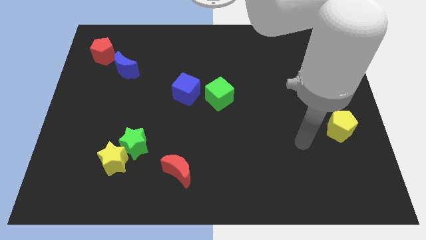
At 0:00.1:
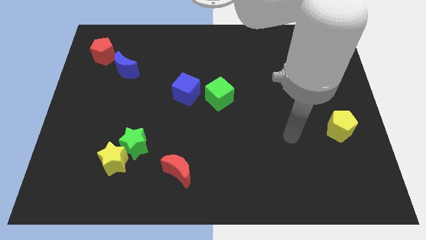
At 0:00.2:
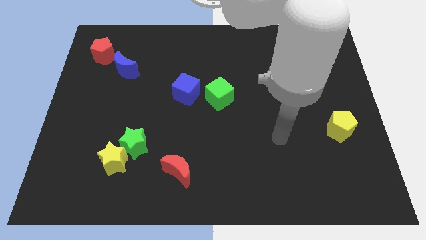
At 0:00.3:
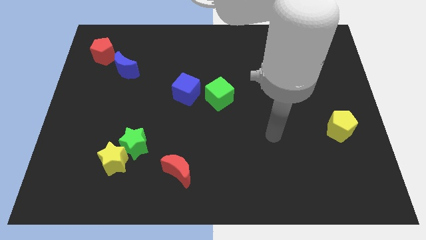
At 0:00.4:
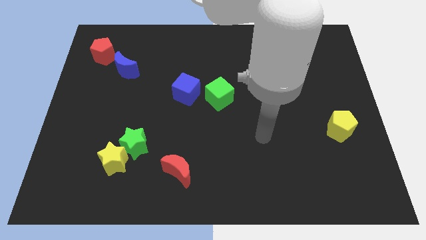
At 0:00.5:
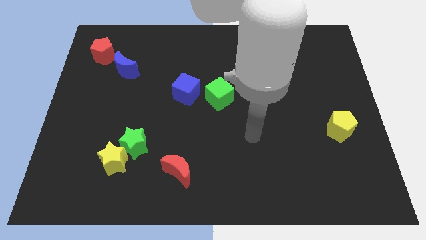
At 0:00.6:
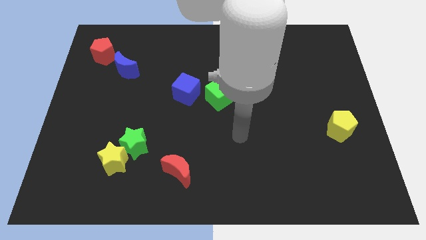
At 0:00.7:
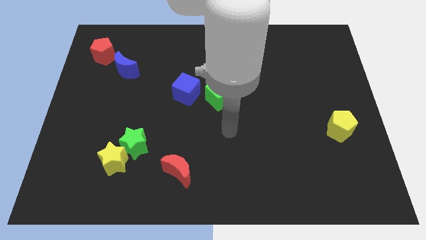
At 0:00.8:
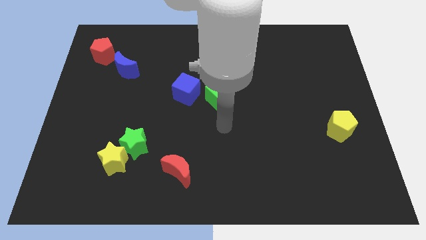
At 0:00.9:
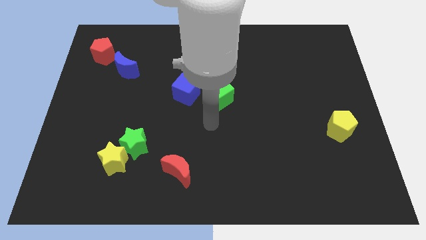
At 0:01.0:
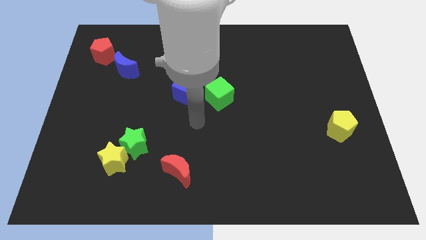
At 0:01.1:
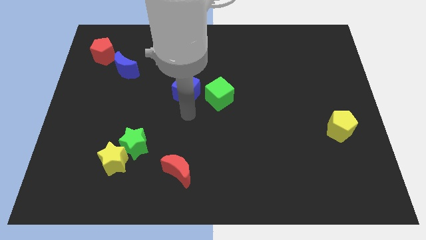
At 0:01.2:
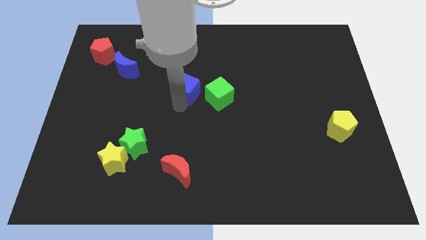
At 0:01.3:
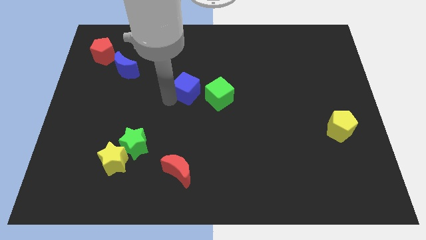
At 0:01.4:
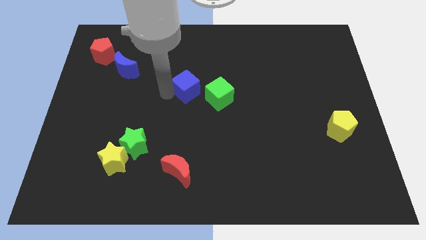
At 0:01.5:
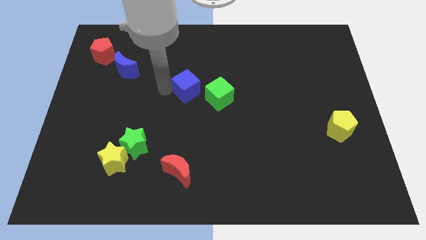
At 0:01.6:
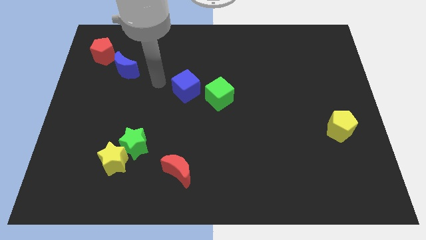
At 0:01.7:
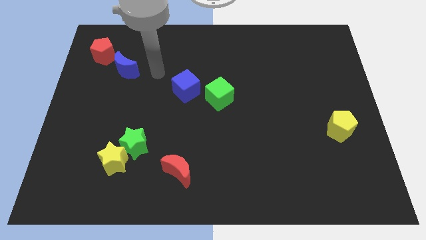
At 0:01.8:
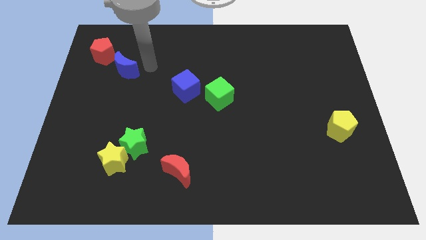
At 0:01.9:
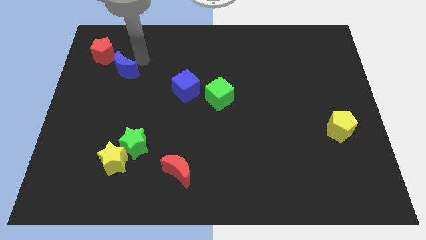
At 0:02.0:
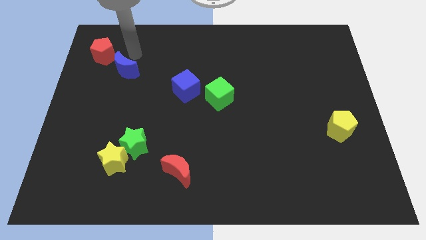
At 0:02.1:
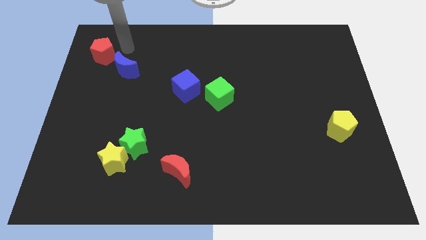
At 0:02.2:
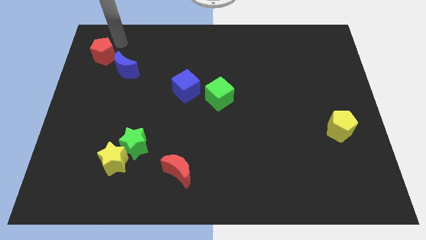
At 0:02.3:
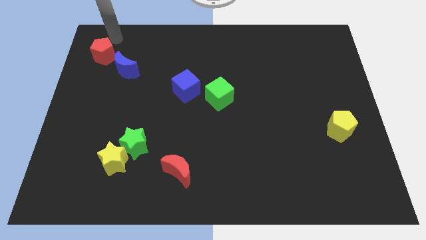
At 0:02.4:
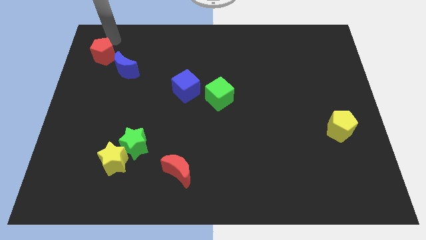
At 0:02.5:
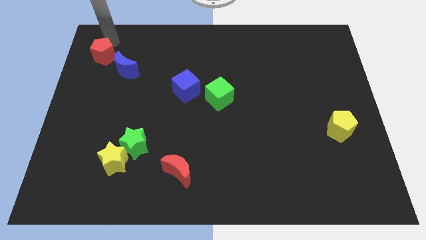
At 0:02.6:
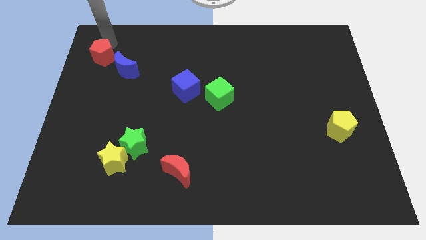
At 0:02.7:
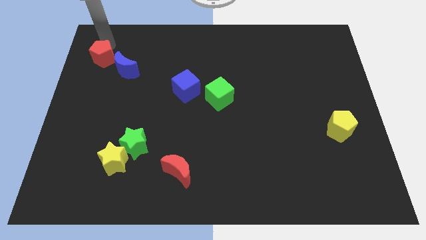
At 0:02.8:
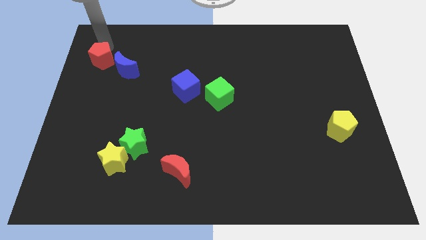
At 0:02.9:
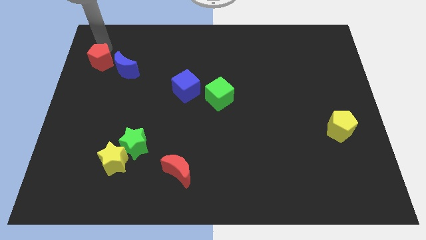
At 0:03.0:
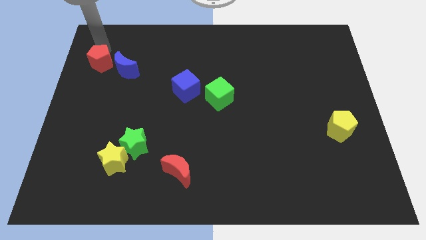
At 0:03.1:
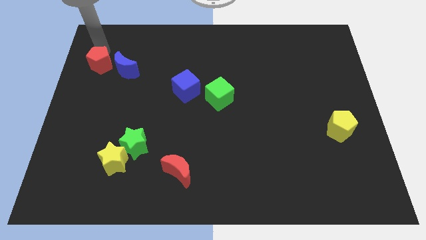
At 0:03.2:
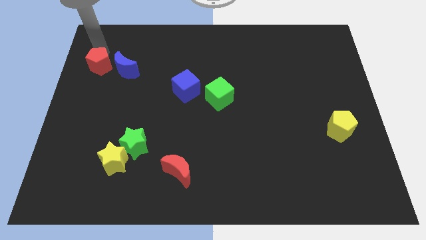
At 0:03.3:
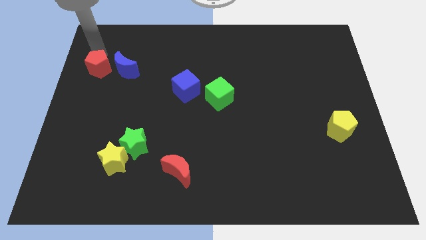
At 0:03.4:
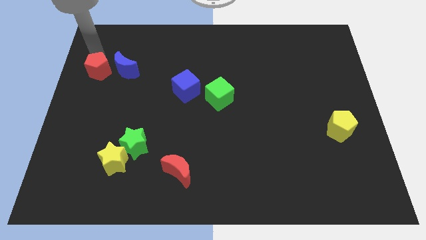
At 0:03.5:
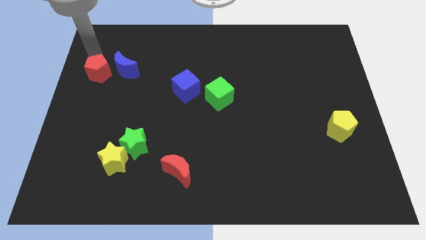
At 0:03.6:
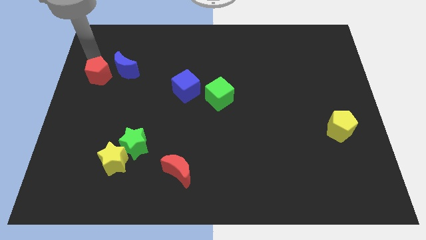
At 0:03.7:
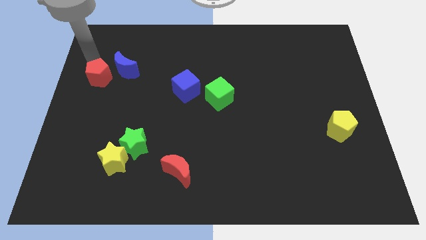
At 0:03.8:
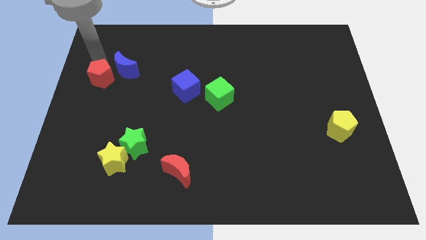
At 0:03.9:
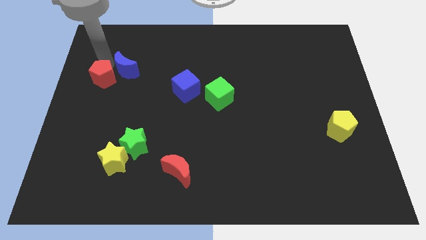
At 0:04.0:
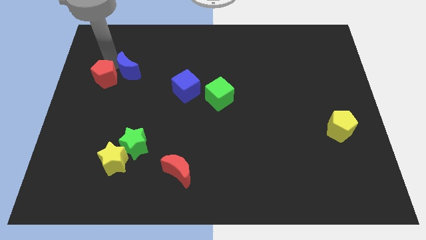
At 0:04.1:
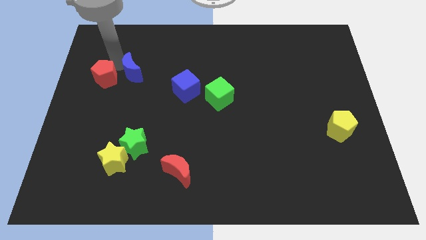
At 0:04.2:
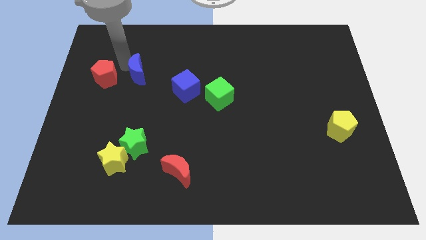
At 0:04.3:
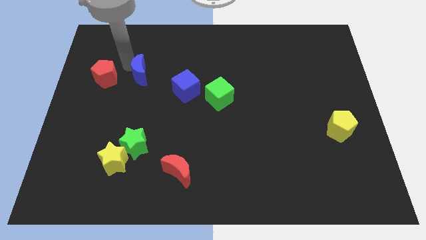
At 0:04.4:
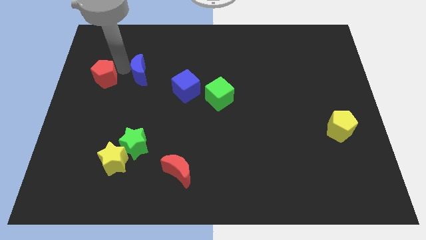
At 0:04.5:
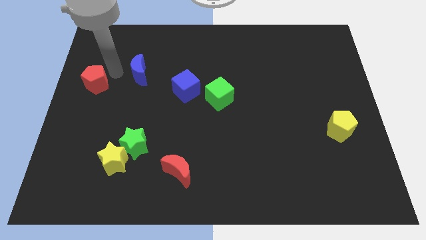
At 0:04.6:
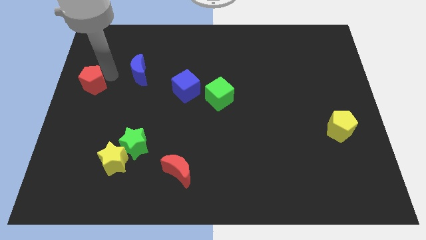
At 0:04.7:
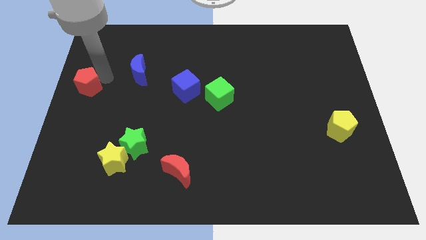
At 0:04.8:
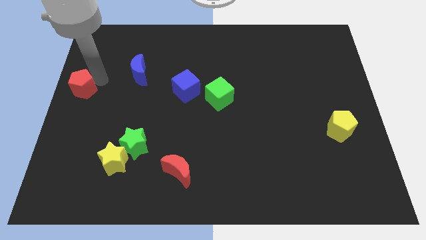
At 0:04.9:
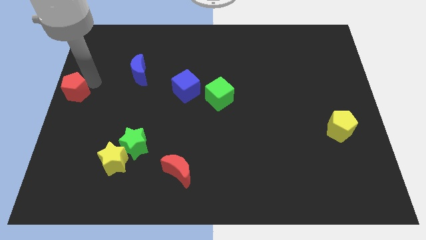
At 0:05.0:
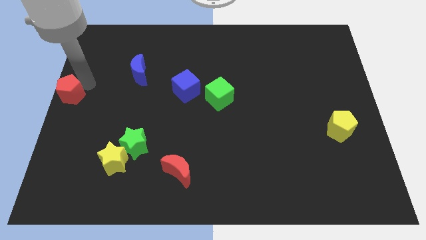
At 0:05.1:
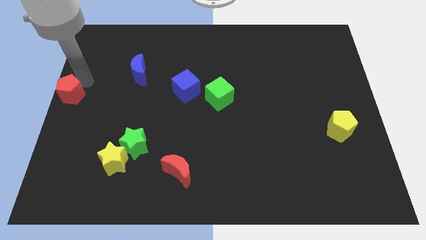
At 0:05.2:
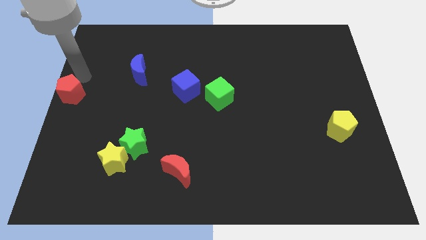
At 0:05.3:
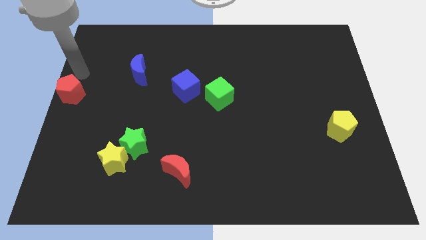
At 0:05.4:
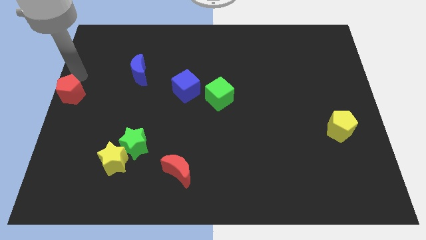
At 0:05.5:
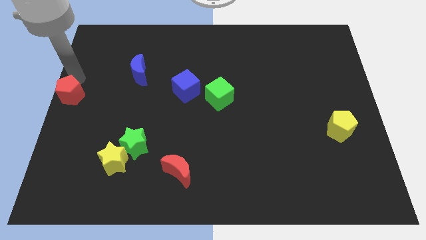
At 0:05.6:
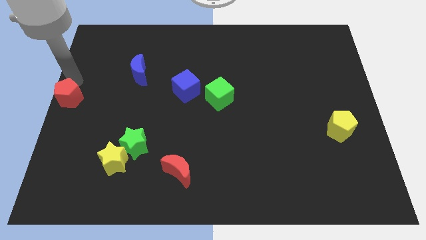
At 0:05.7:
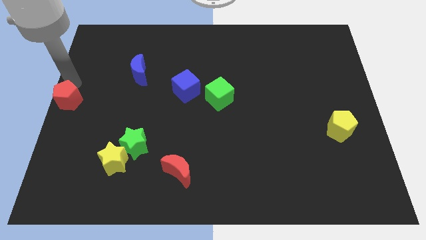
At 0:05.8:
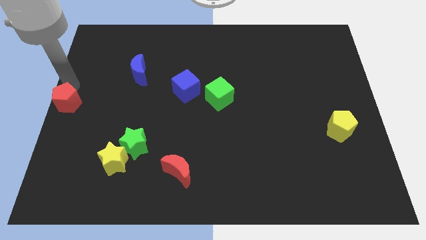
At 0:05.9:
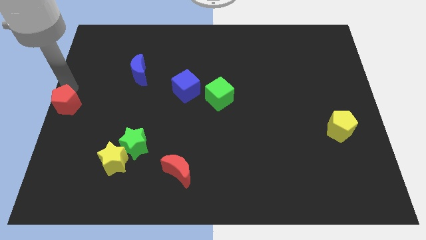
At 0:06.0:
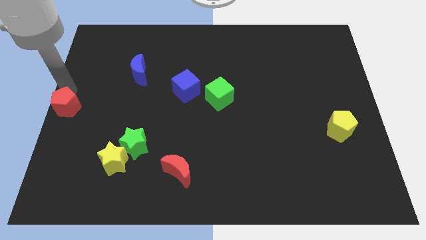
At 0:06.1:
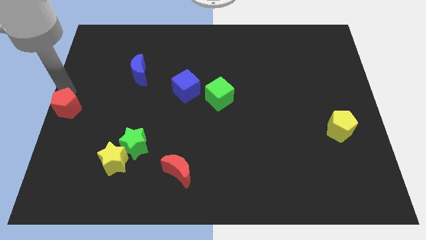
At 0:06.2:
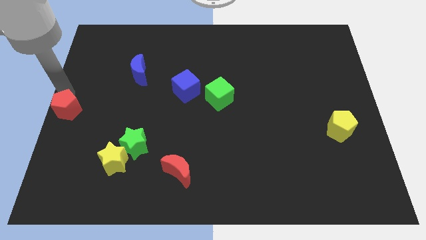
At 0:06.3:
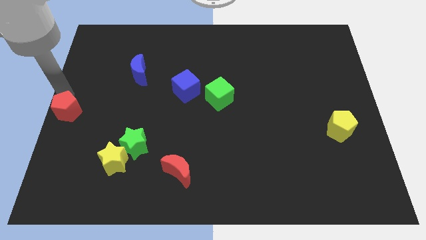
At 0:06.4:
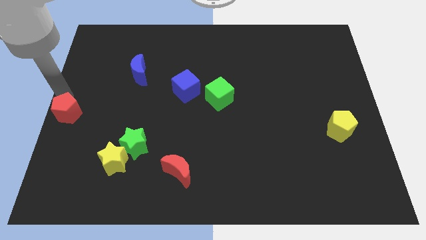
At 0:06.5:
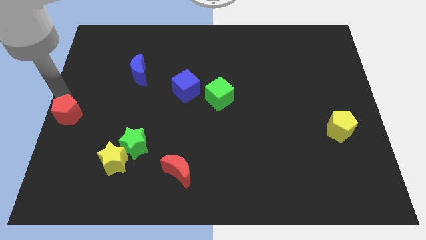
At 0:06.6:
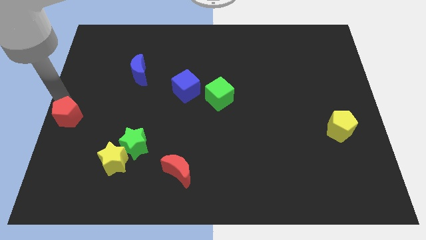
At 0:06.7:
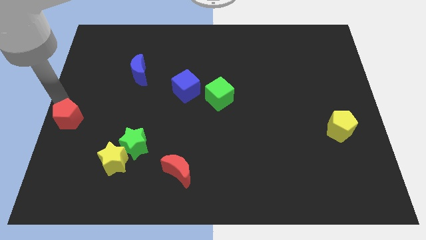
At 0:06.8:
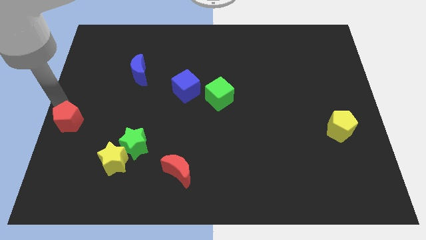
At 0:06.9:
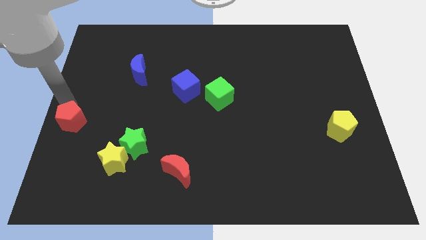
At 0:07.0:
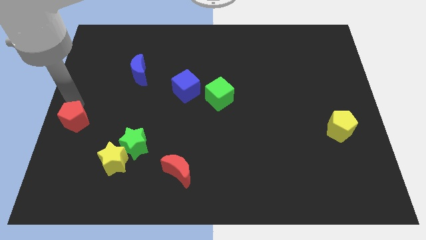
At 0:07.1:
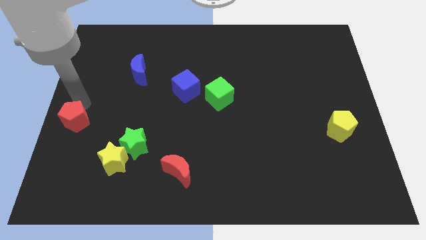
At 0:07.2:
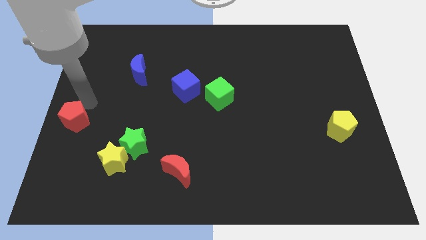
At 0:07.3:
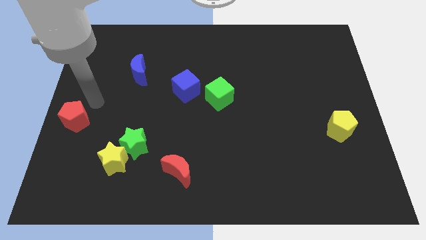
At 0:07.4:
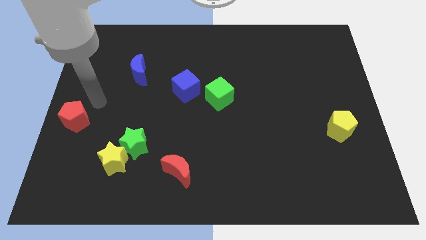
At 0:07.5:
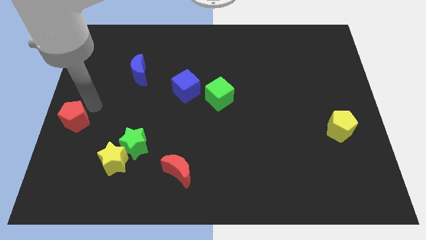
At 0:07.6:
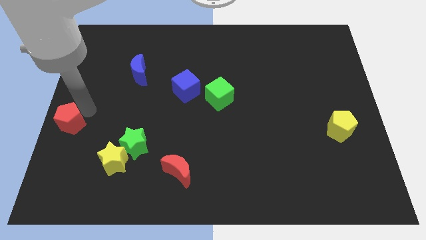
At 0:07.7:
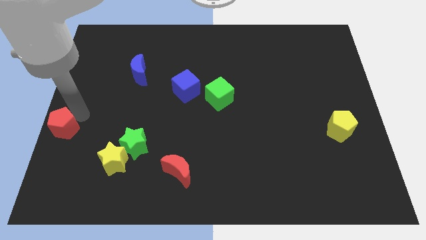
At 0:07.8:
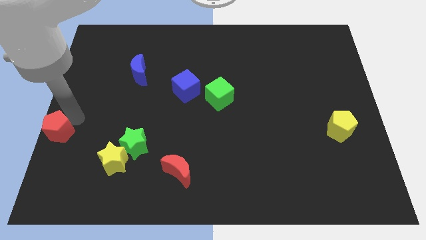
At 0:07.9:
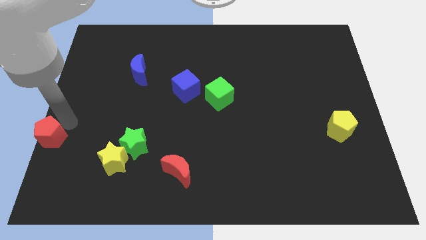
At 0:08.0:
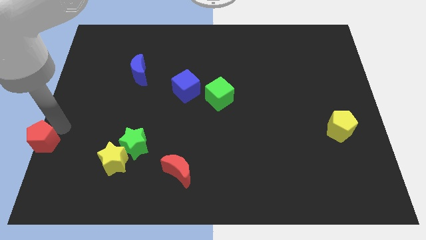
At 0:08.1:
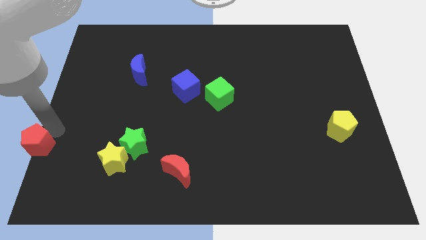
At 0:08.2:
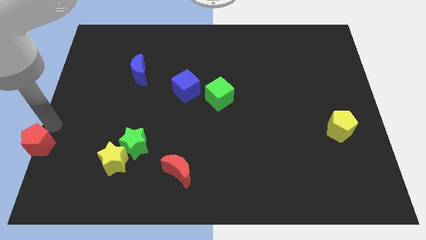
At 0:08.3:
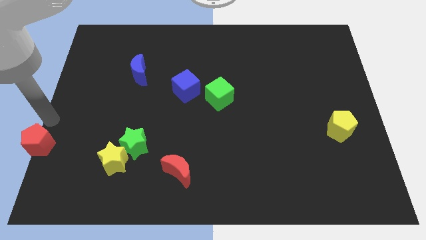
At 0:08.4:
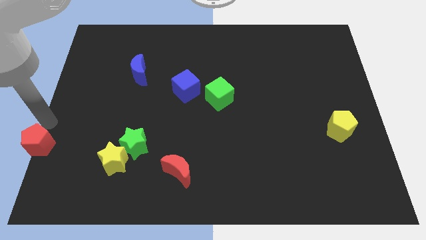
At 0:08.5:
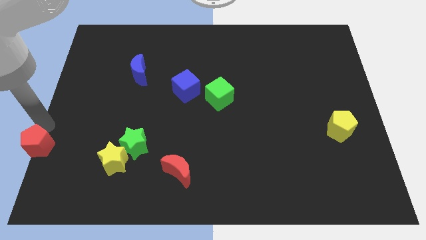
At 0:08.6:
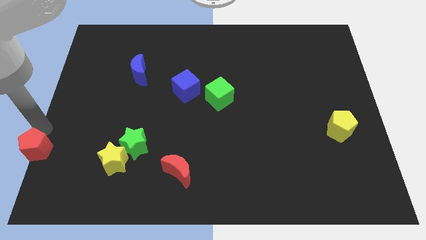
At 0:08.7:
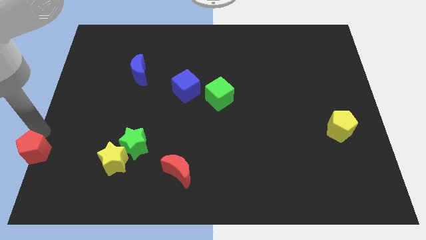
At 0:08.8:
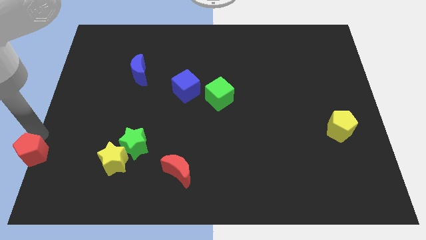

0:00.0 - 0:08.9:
put the red pentagon to the lower left corner
